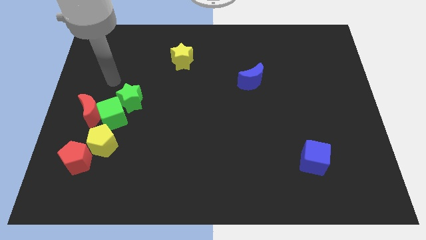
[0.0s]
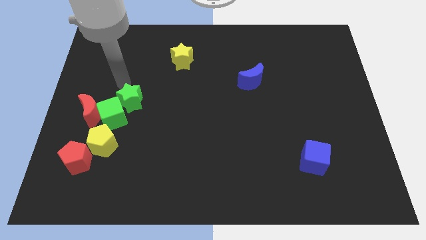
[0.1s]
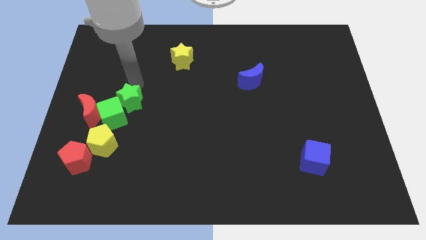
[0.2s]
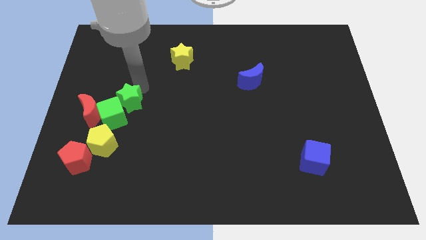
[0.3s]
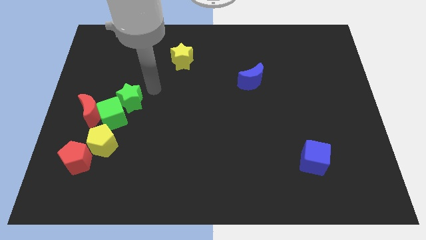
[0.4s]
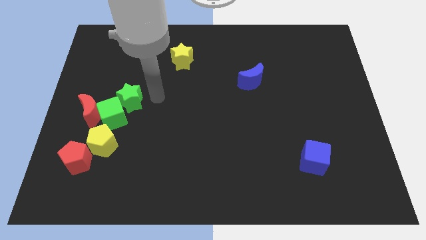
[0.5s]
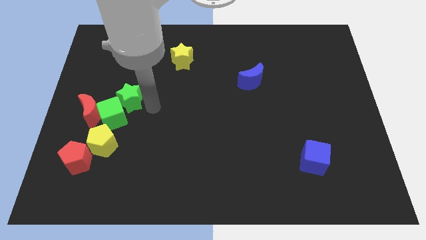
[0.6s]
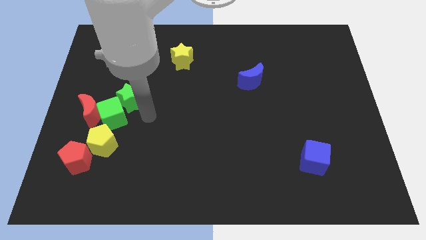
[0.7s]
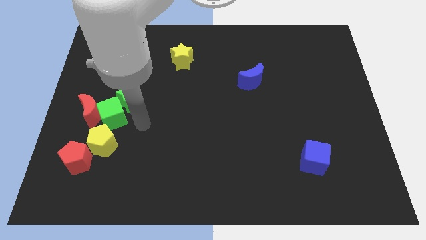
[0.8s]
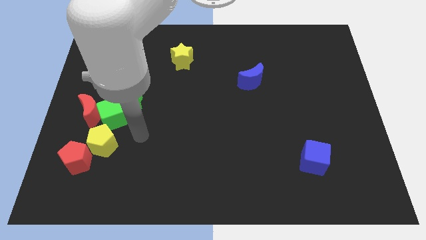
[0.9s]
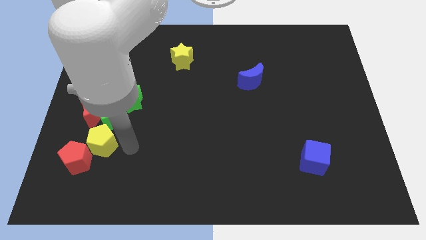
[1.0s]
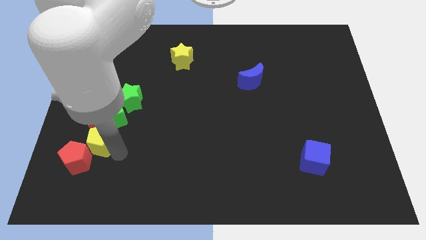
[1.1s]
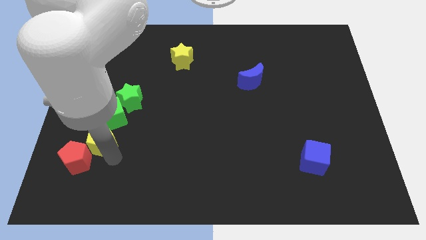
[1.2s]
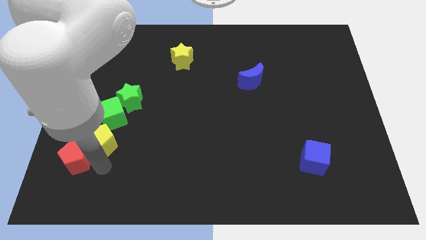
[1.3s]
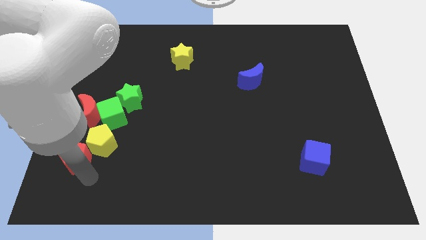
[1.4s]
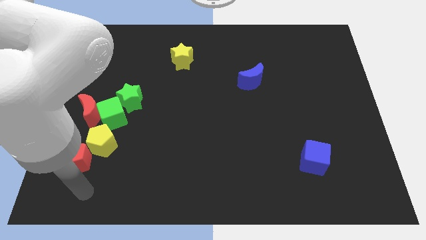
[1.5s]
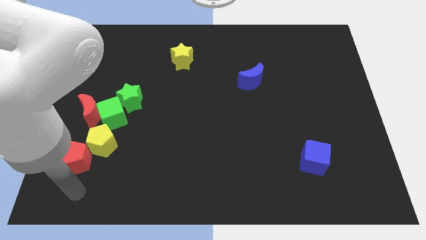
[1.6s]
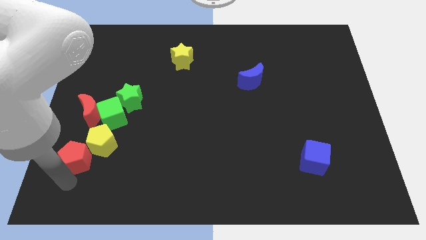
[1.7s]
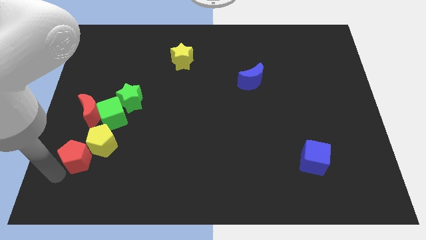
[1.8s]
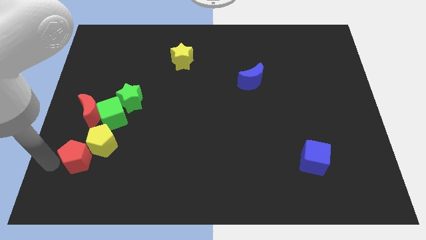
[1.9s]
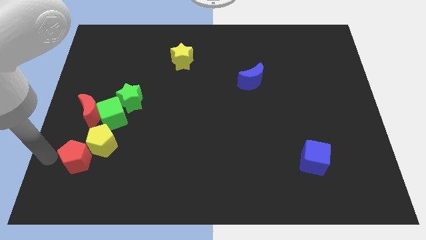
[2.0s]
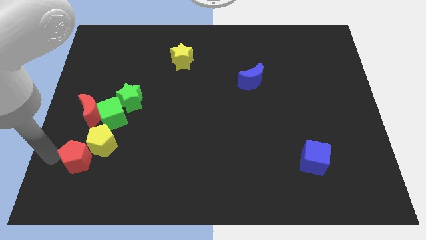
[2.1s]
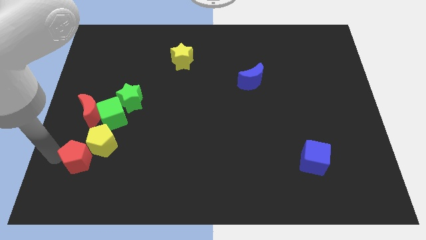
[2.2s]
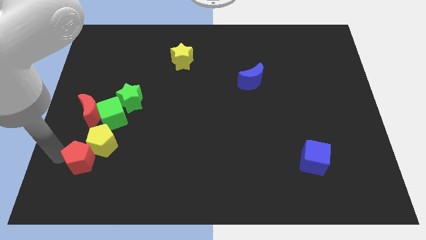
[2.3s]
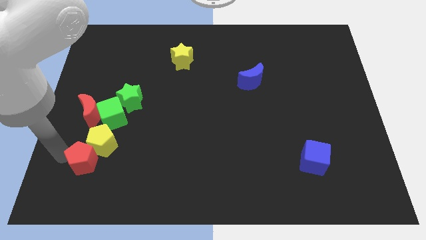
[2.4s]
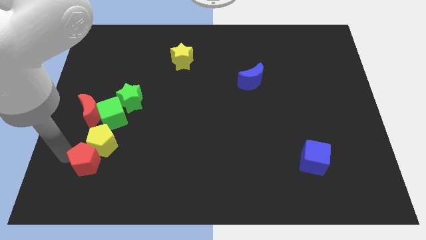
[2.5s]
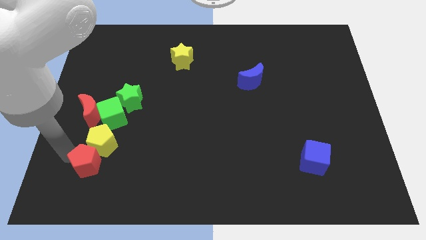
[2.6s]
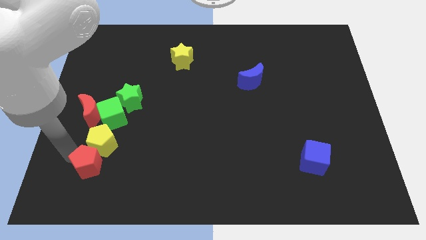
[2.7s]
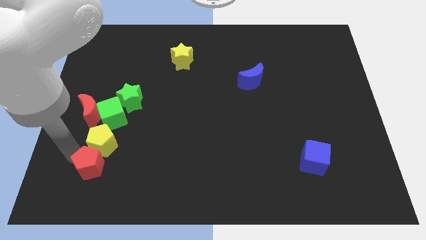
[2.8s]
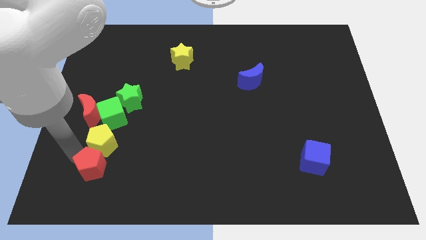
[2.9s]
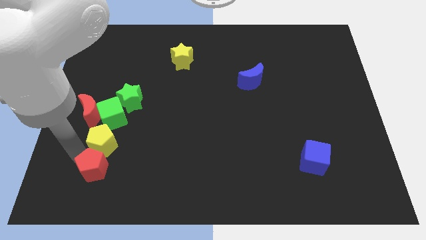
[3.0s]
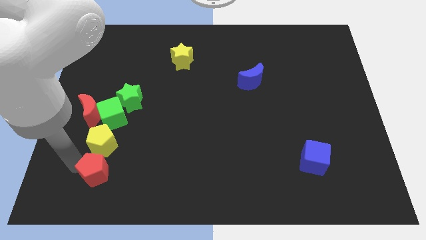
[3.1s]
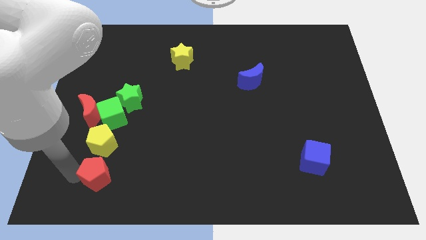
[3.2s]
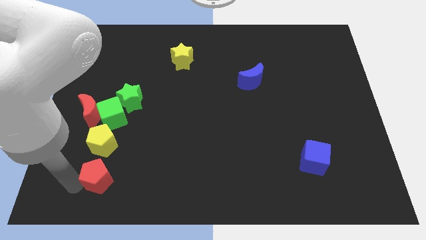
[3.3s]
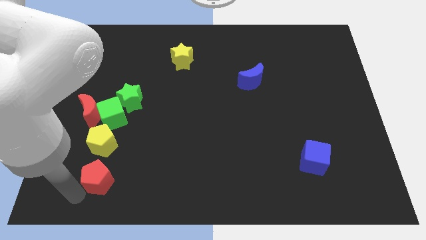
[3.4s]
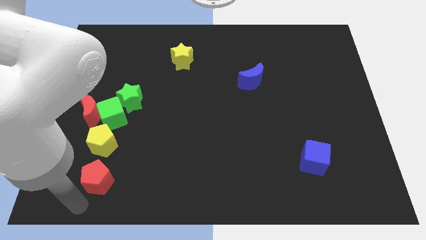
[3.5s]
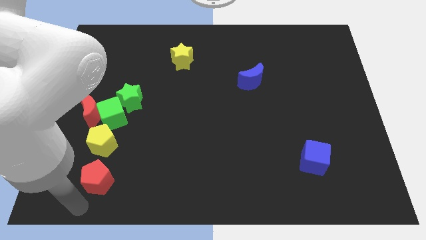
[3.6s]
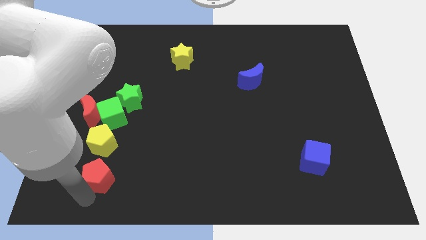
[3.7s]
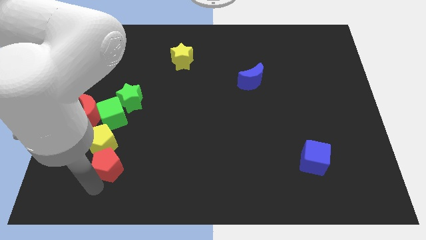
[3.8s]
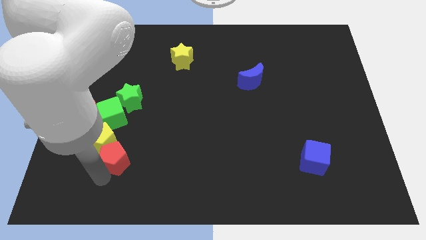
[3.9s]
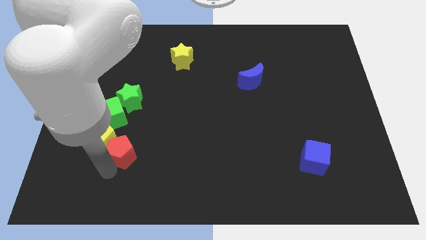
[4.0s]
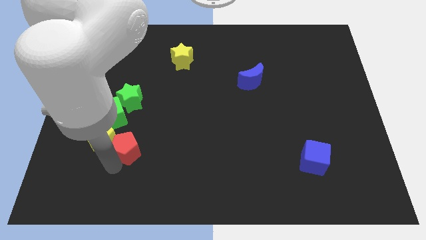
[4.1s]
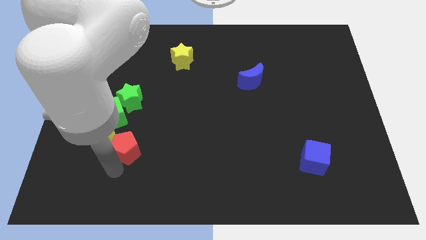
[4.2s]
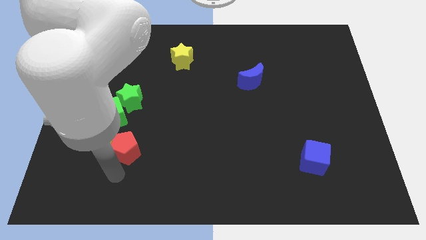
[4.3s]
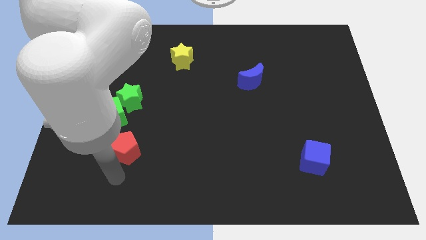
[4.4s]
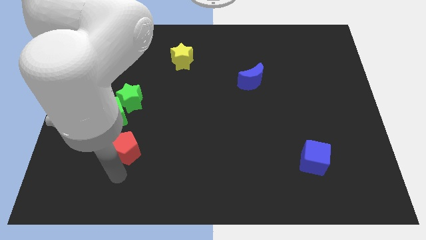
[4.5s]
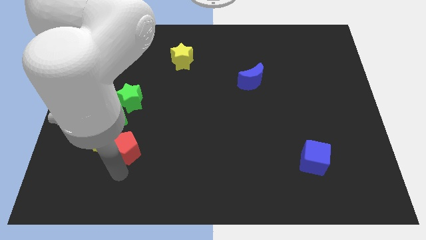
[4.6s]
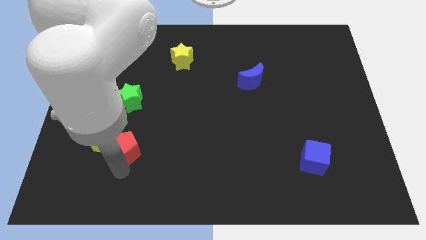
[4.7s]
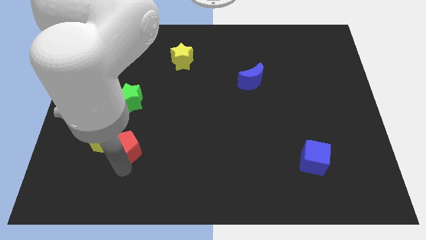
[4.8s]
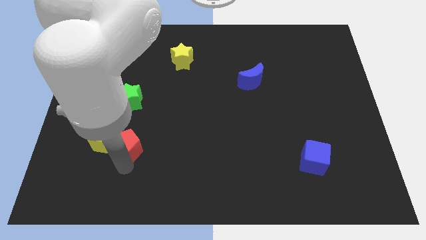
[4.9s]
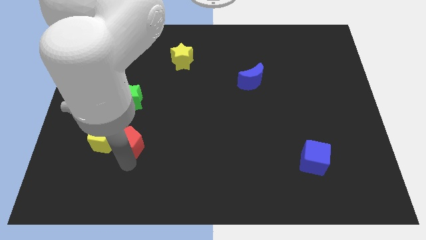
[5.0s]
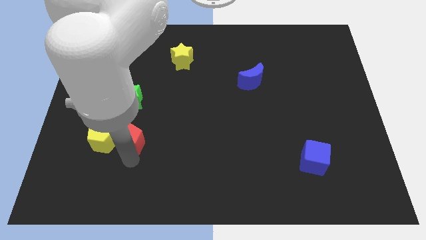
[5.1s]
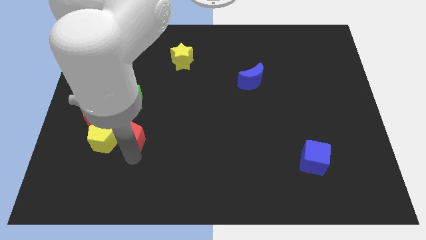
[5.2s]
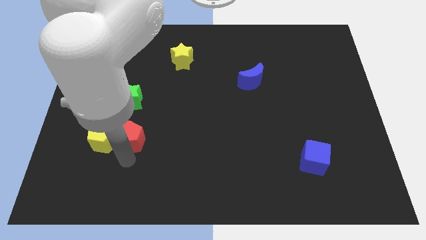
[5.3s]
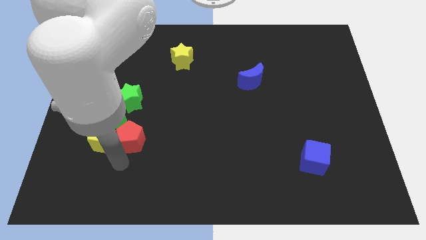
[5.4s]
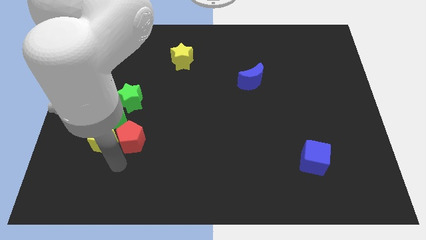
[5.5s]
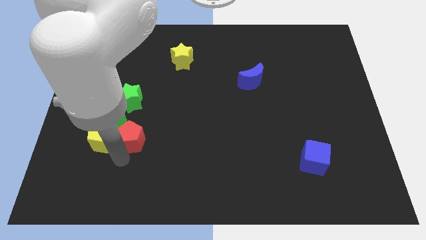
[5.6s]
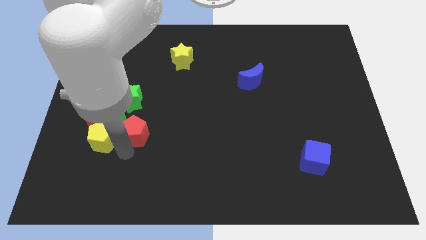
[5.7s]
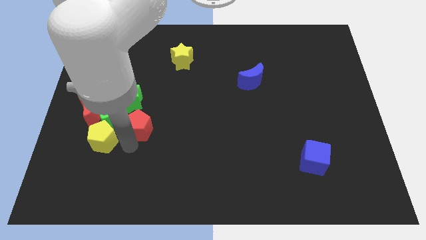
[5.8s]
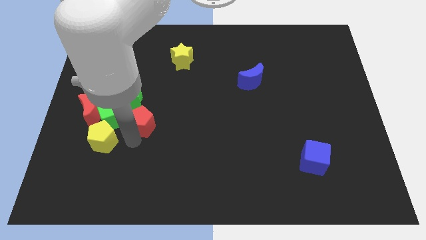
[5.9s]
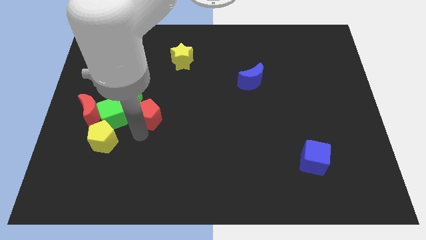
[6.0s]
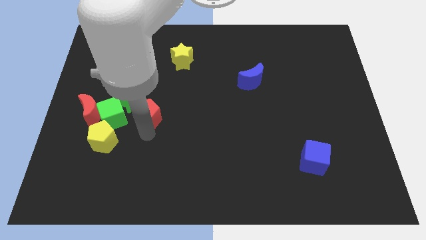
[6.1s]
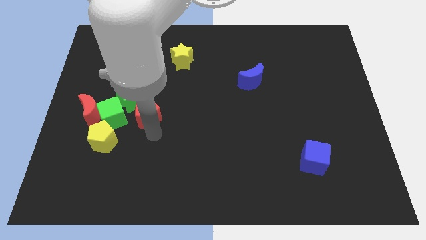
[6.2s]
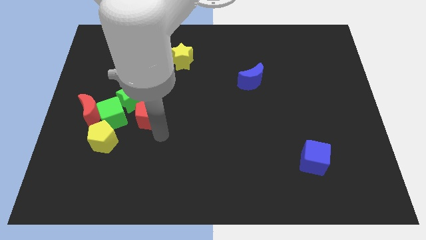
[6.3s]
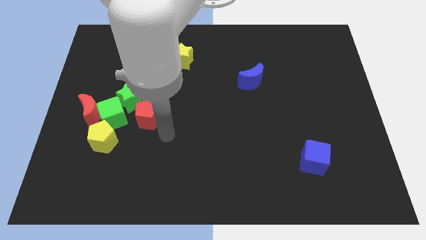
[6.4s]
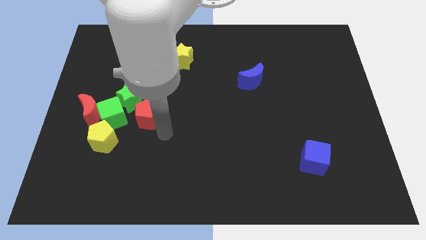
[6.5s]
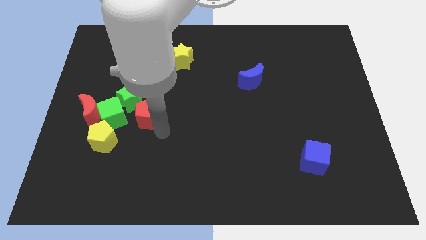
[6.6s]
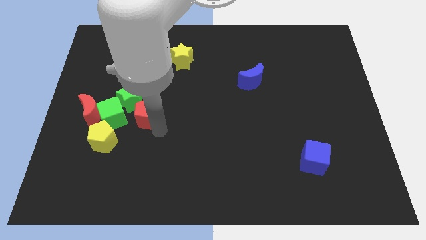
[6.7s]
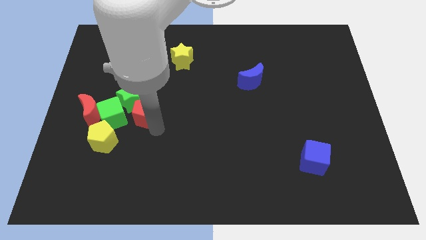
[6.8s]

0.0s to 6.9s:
push the red pentagon to the green star
